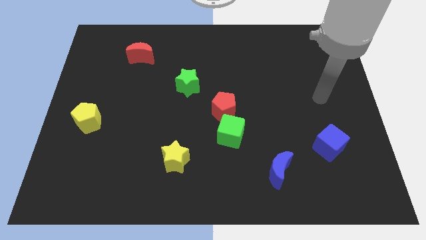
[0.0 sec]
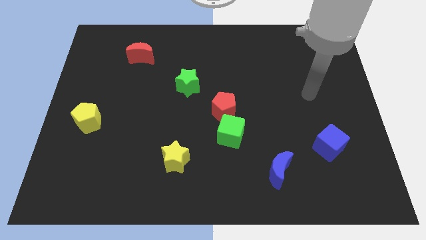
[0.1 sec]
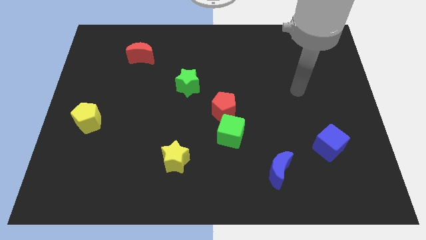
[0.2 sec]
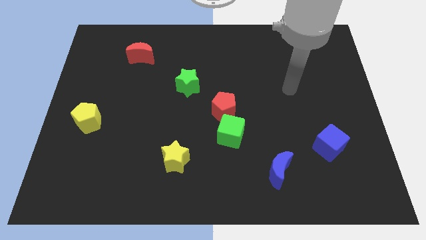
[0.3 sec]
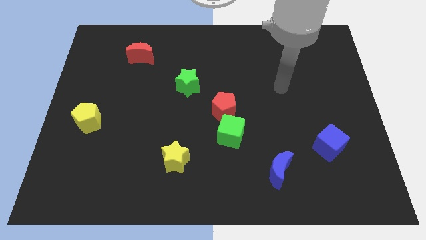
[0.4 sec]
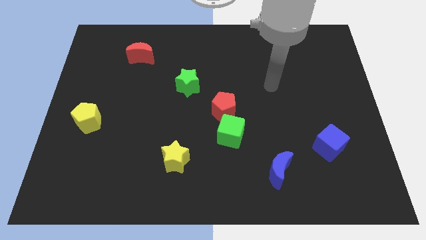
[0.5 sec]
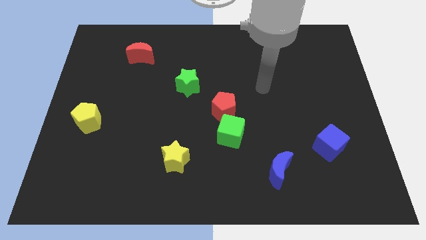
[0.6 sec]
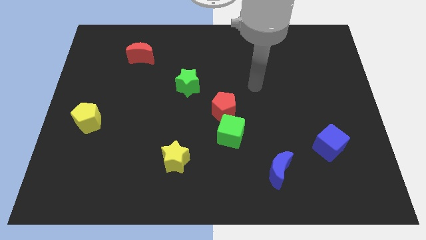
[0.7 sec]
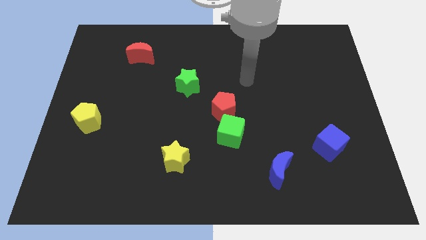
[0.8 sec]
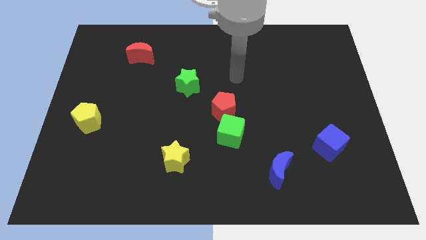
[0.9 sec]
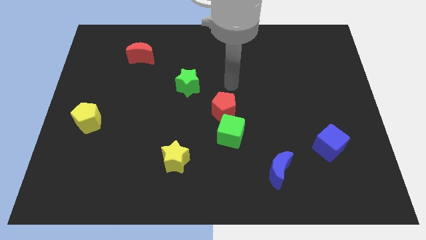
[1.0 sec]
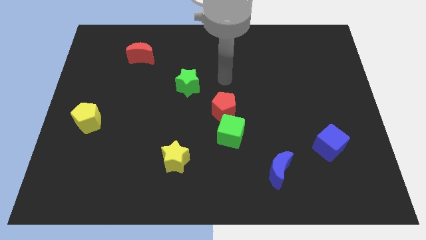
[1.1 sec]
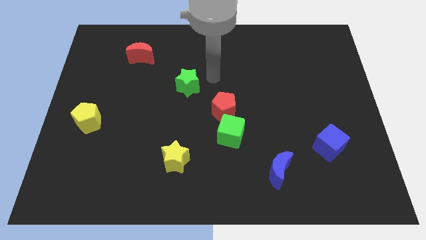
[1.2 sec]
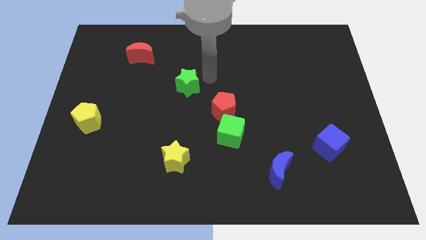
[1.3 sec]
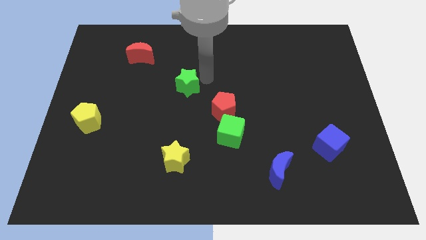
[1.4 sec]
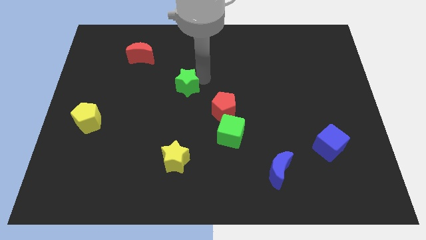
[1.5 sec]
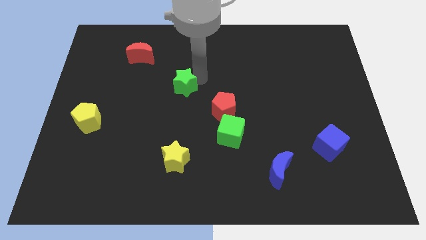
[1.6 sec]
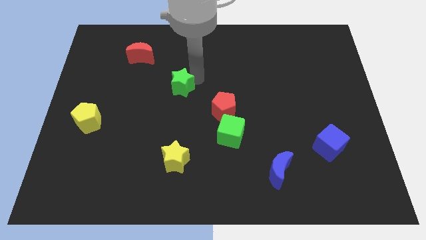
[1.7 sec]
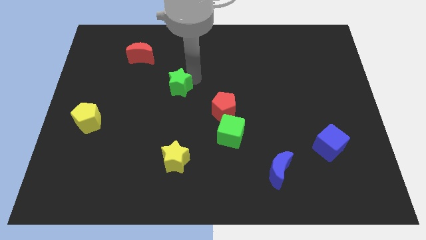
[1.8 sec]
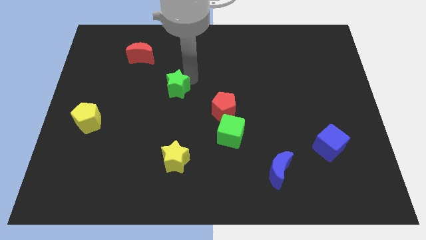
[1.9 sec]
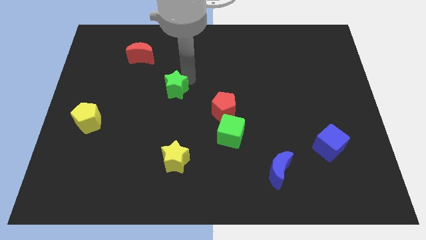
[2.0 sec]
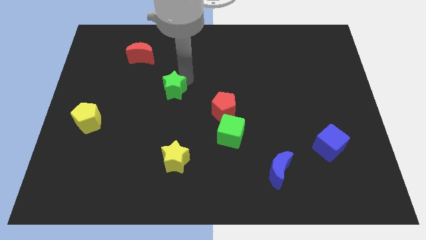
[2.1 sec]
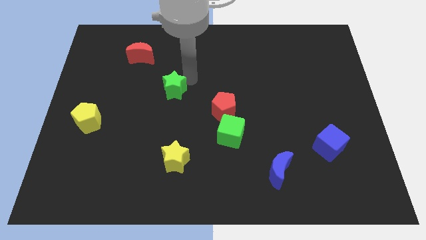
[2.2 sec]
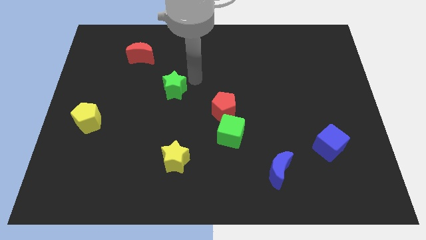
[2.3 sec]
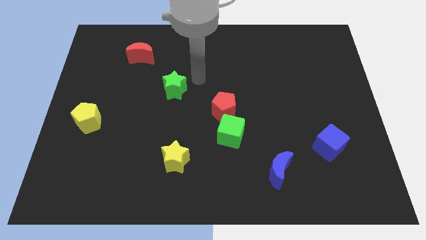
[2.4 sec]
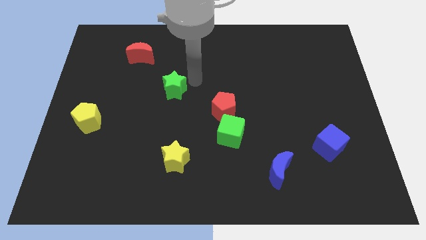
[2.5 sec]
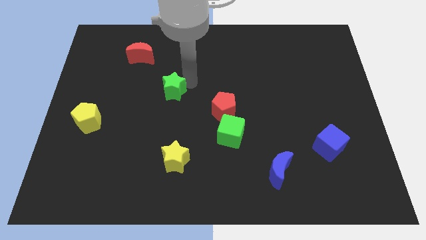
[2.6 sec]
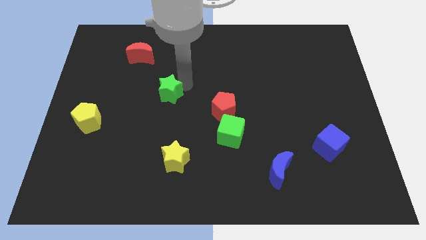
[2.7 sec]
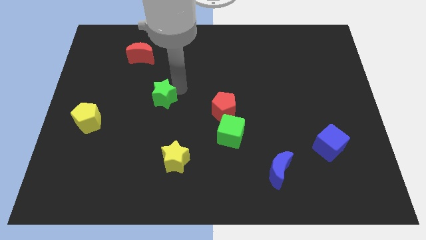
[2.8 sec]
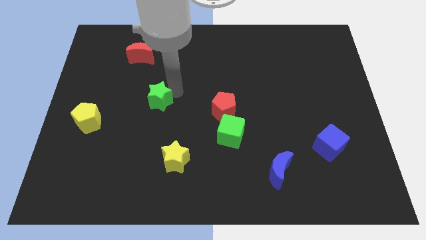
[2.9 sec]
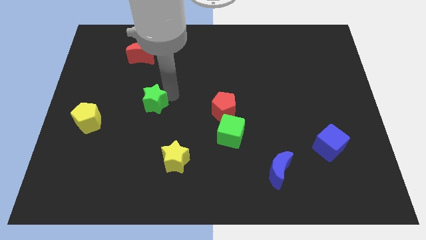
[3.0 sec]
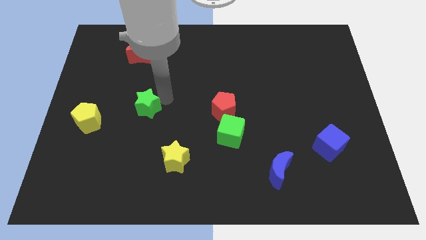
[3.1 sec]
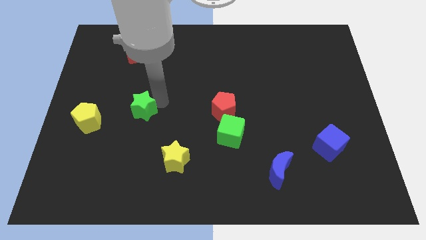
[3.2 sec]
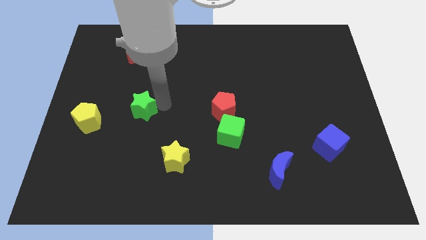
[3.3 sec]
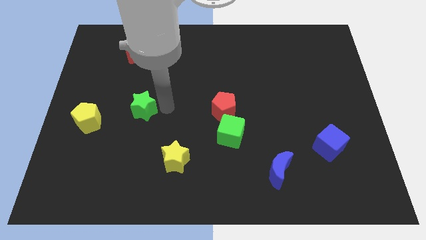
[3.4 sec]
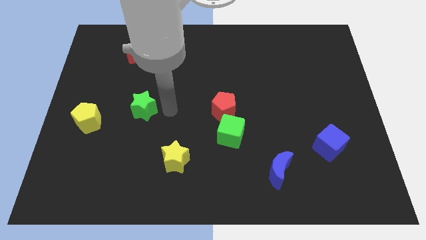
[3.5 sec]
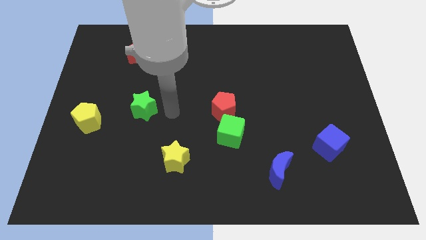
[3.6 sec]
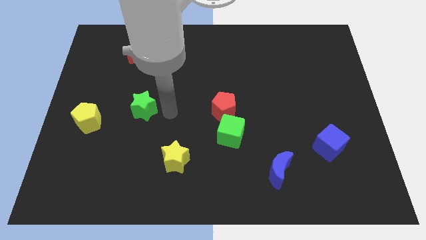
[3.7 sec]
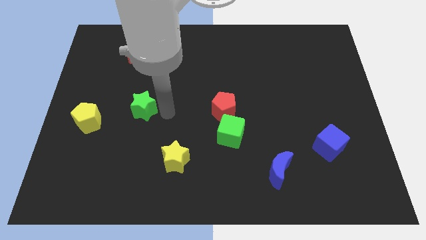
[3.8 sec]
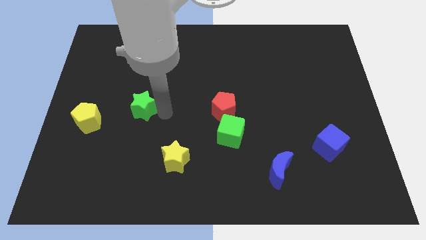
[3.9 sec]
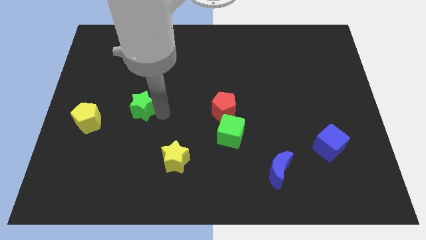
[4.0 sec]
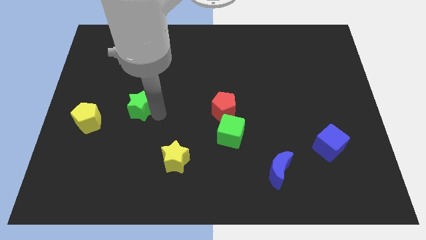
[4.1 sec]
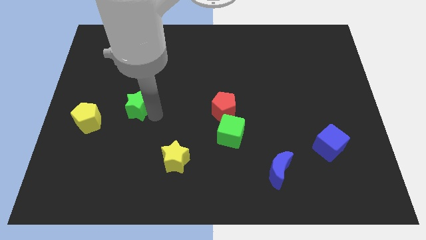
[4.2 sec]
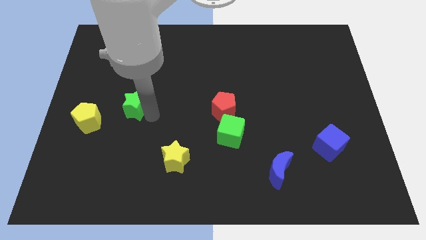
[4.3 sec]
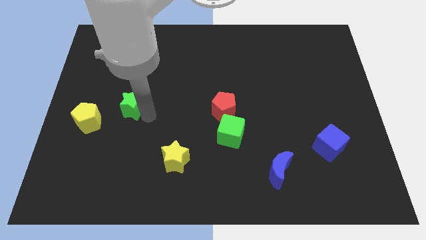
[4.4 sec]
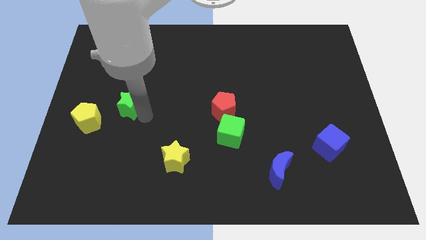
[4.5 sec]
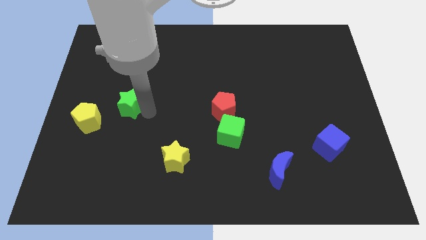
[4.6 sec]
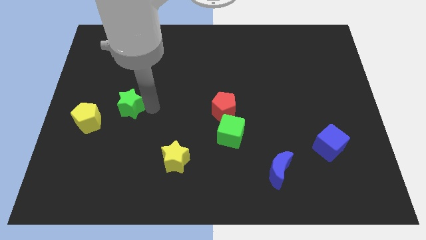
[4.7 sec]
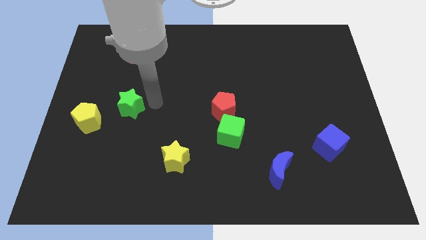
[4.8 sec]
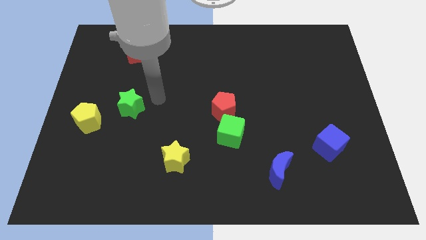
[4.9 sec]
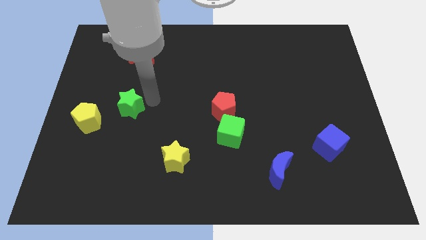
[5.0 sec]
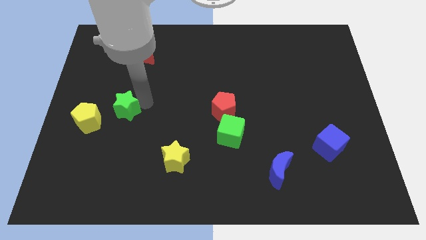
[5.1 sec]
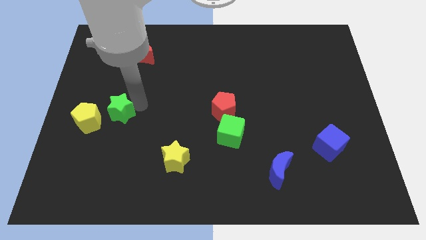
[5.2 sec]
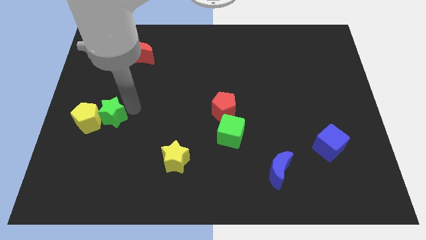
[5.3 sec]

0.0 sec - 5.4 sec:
slide the green star close to the yellow pentagon

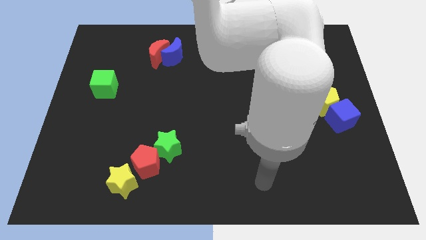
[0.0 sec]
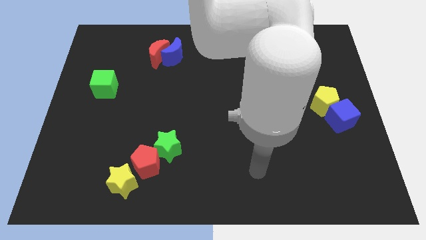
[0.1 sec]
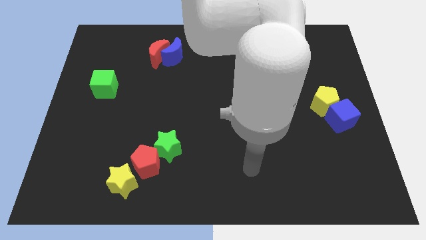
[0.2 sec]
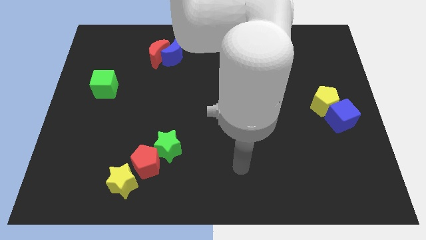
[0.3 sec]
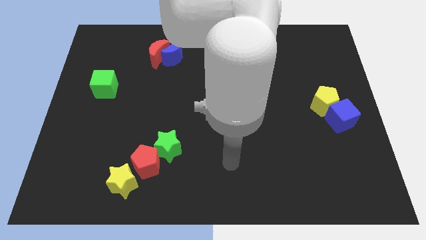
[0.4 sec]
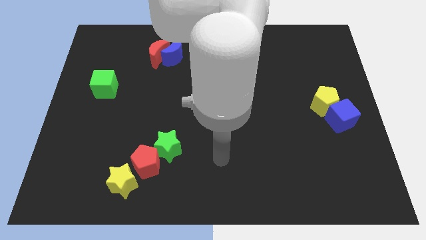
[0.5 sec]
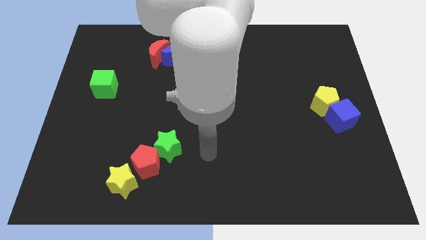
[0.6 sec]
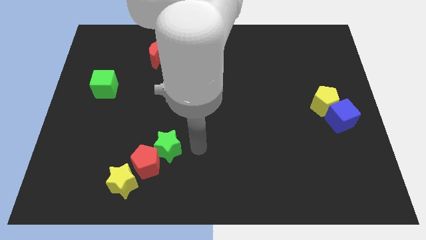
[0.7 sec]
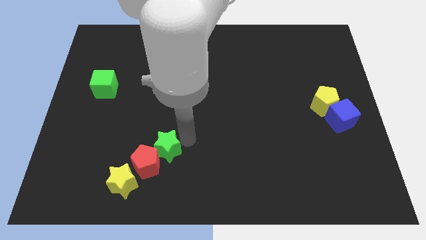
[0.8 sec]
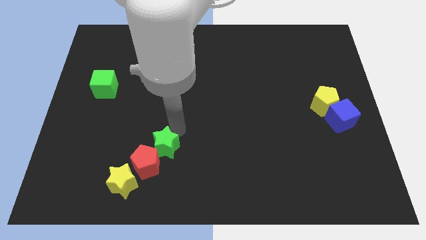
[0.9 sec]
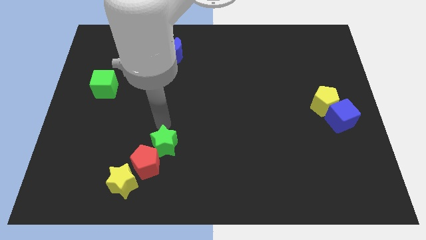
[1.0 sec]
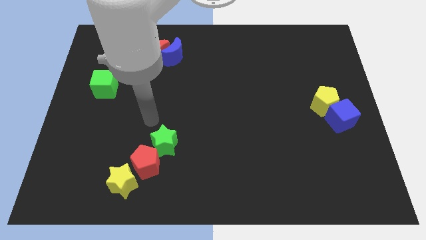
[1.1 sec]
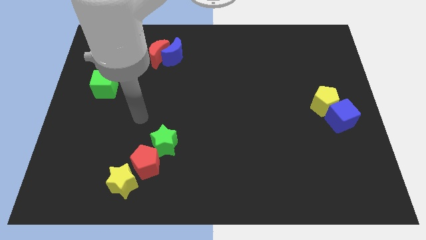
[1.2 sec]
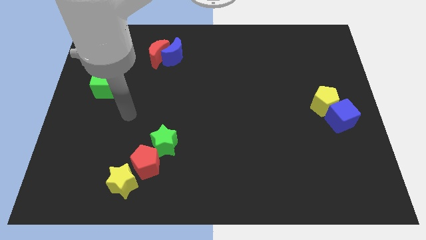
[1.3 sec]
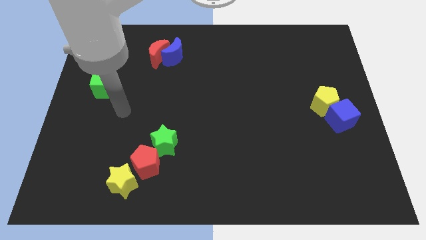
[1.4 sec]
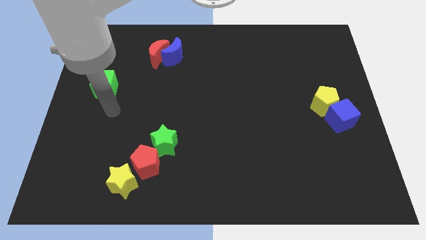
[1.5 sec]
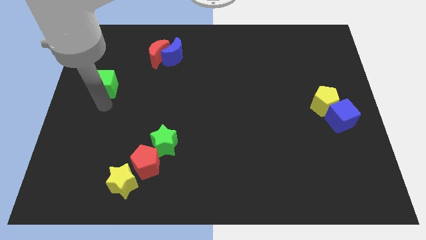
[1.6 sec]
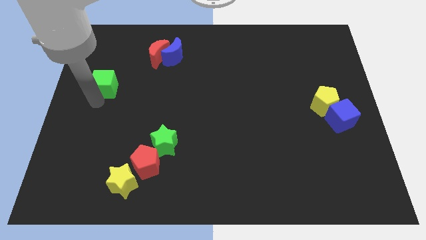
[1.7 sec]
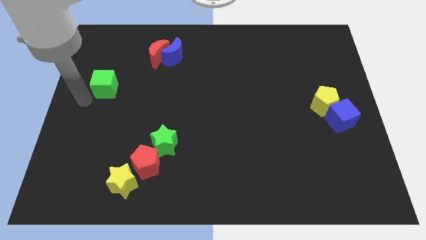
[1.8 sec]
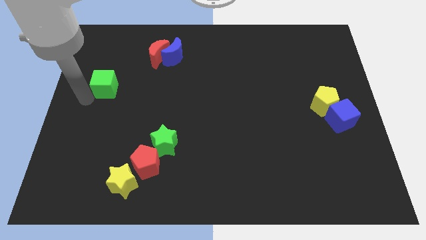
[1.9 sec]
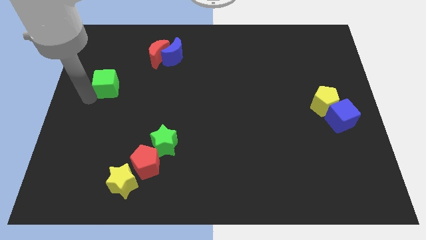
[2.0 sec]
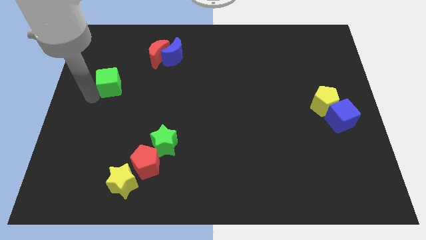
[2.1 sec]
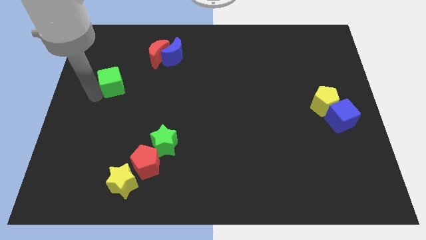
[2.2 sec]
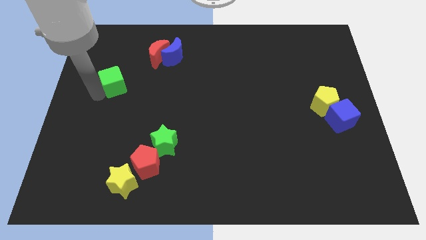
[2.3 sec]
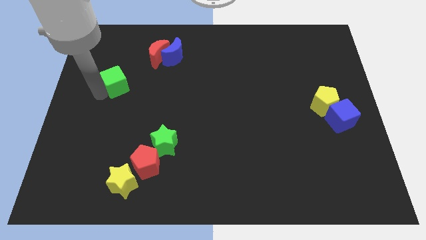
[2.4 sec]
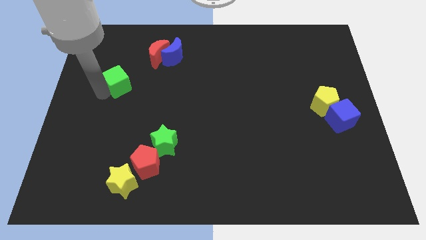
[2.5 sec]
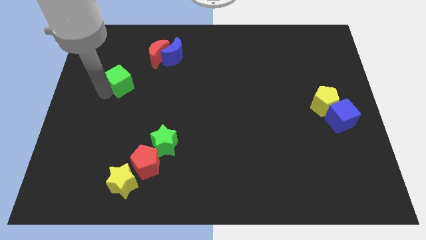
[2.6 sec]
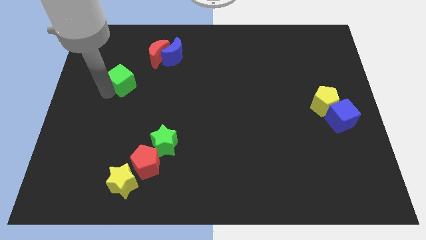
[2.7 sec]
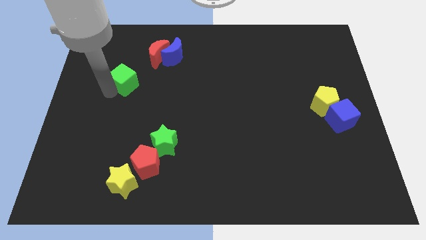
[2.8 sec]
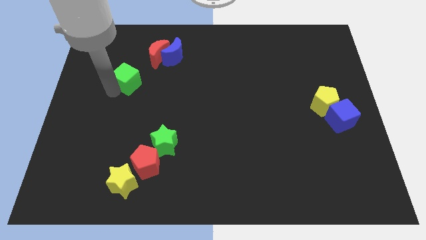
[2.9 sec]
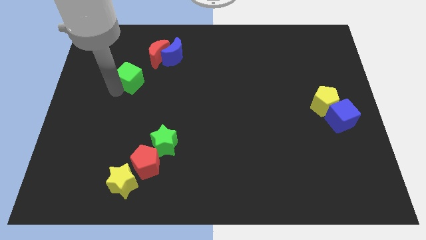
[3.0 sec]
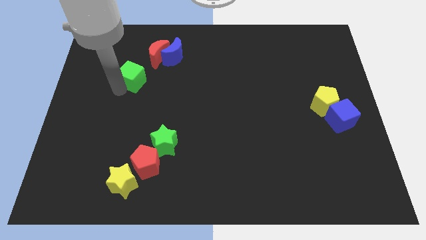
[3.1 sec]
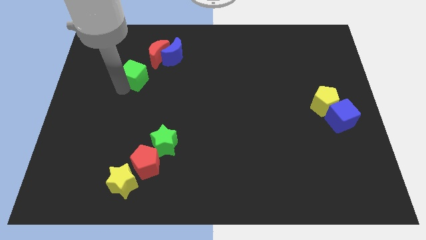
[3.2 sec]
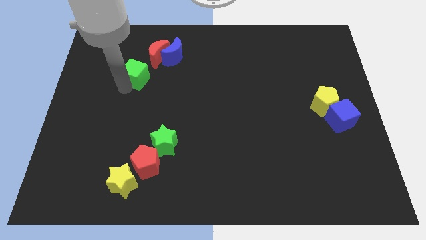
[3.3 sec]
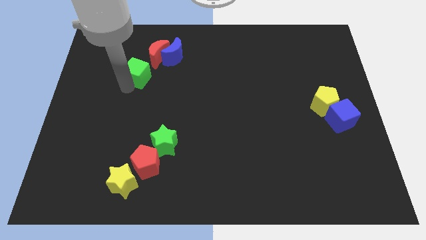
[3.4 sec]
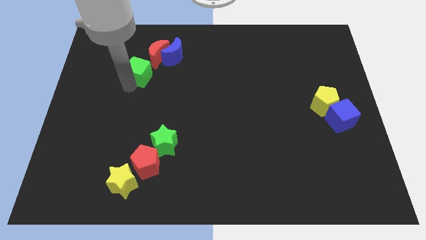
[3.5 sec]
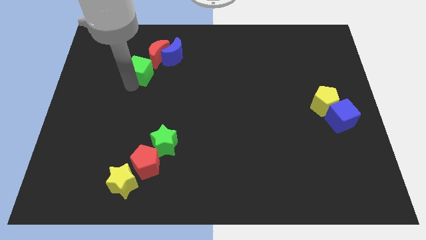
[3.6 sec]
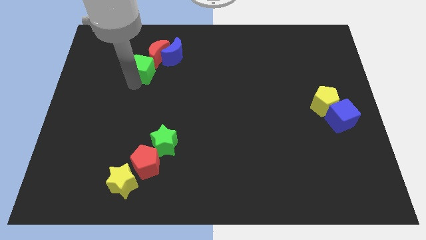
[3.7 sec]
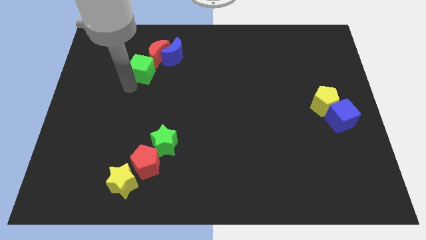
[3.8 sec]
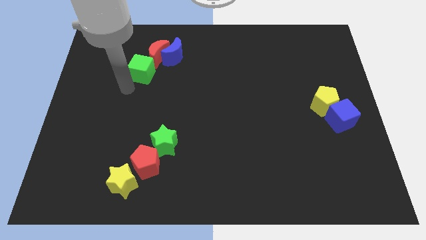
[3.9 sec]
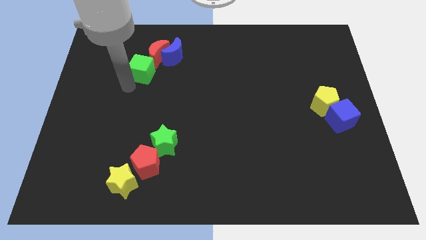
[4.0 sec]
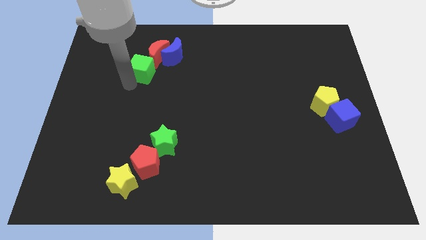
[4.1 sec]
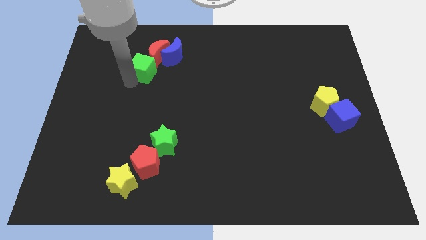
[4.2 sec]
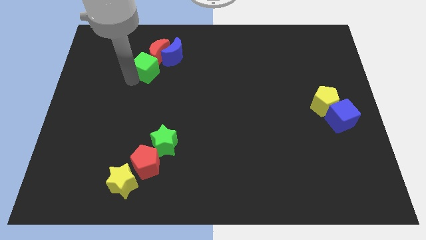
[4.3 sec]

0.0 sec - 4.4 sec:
move the green cube close to the red moon
